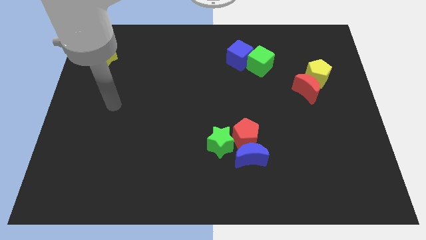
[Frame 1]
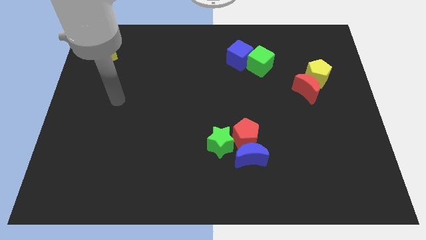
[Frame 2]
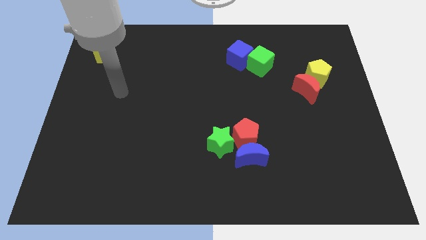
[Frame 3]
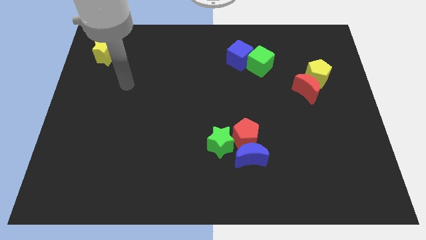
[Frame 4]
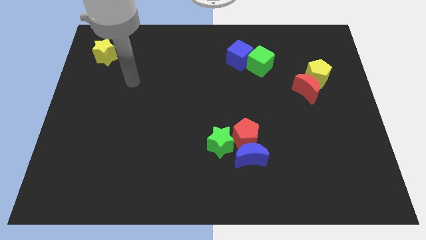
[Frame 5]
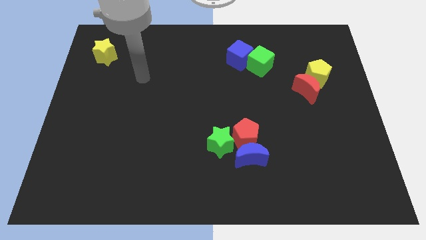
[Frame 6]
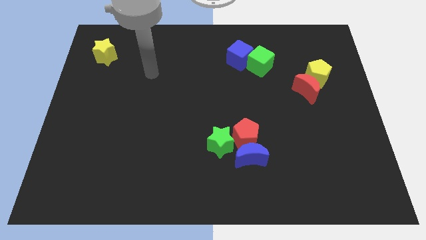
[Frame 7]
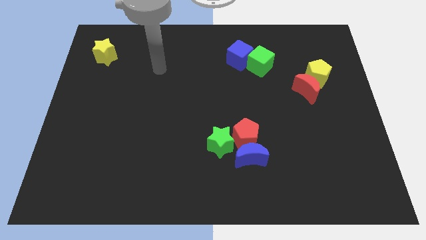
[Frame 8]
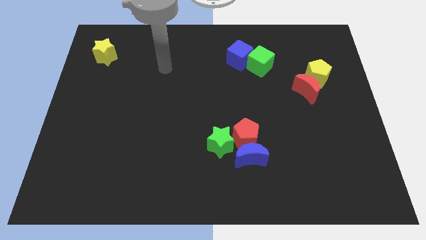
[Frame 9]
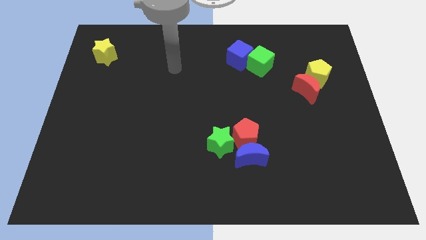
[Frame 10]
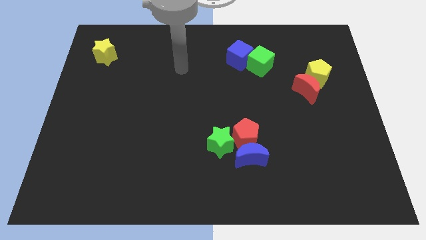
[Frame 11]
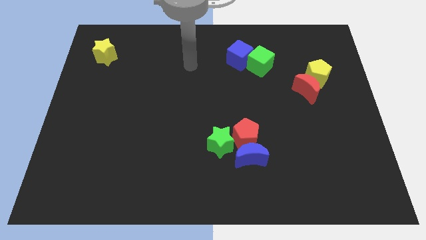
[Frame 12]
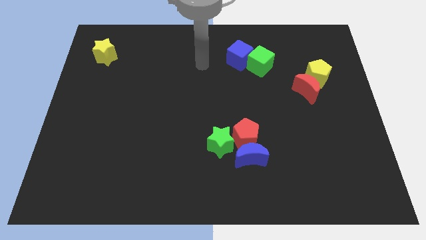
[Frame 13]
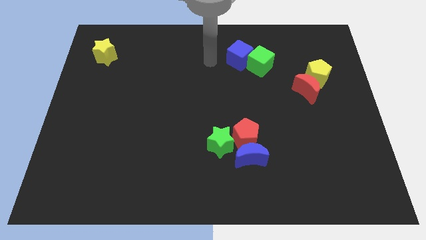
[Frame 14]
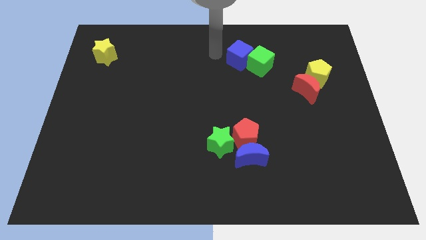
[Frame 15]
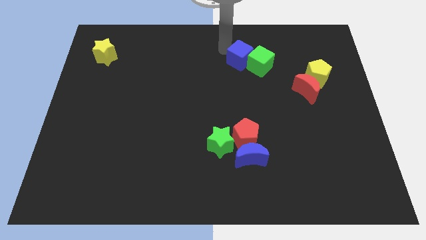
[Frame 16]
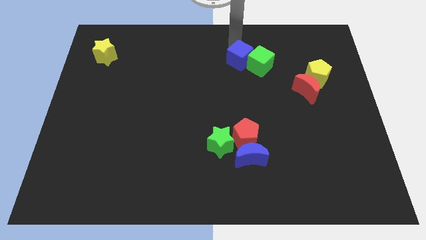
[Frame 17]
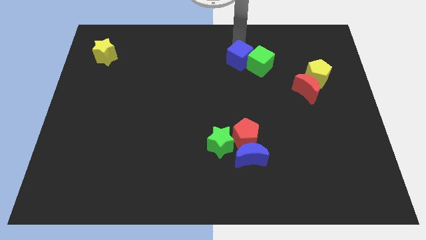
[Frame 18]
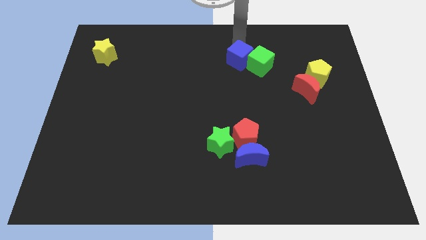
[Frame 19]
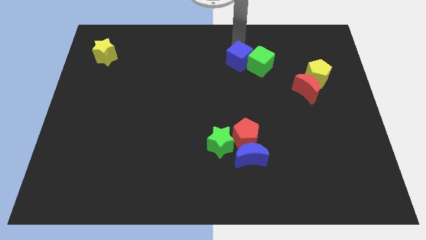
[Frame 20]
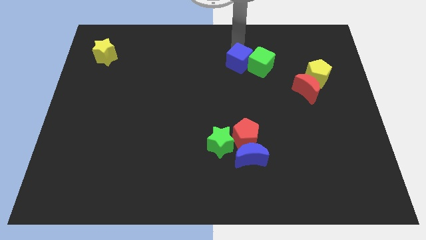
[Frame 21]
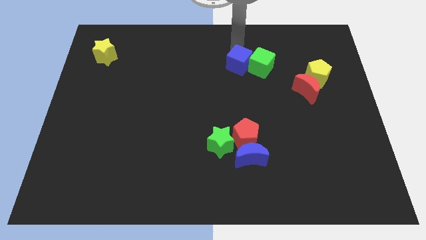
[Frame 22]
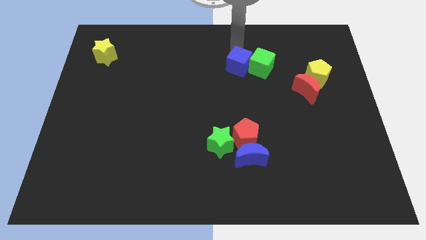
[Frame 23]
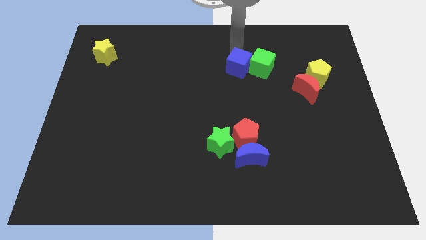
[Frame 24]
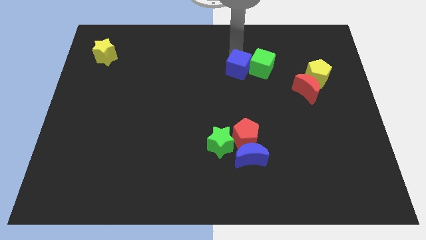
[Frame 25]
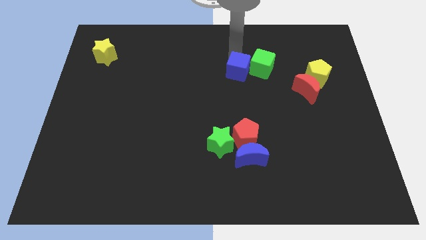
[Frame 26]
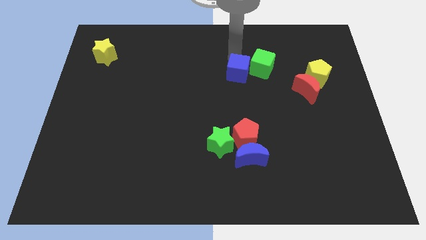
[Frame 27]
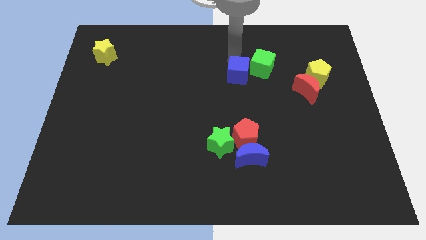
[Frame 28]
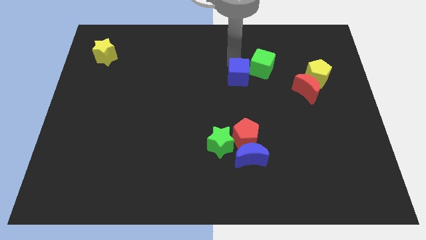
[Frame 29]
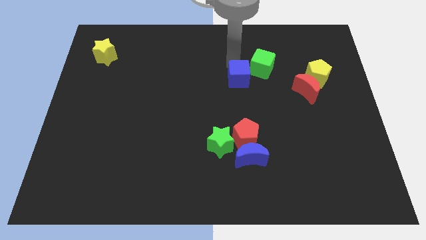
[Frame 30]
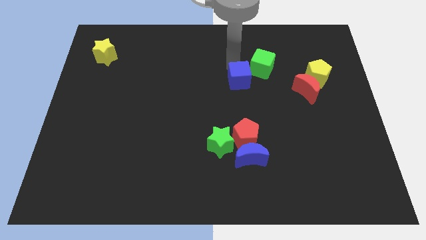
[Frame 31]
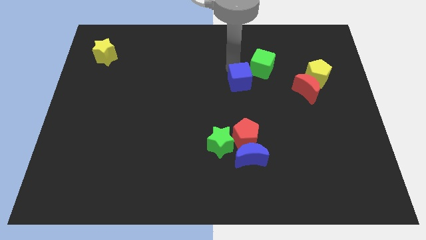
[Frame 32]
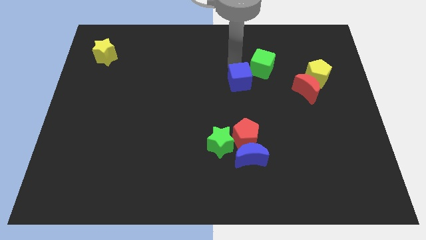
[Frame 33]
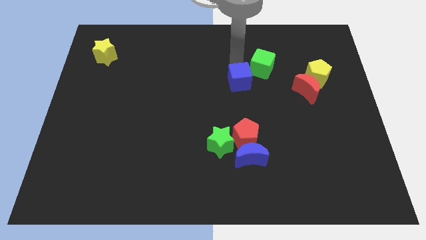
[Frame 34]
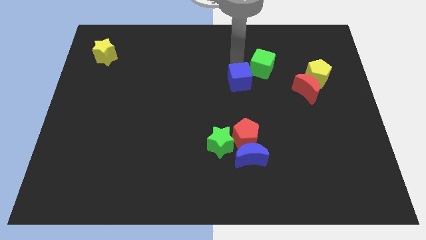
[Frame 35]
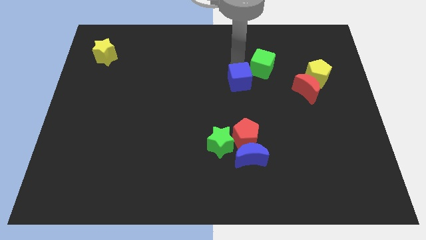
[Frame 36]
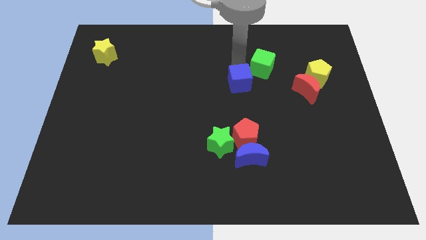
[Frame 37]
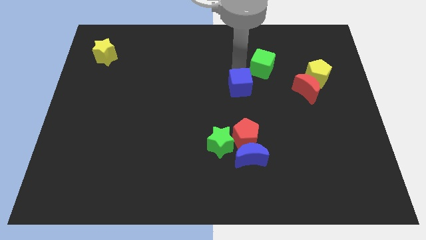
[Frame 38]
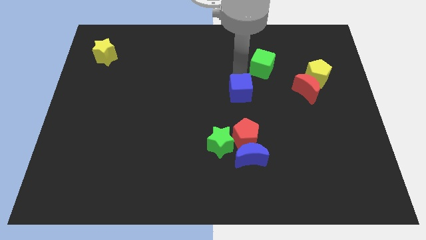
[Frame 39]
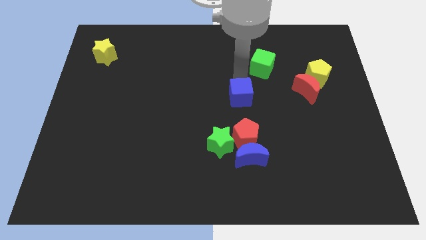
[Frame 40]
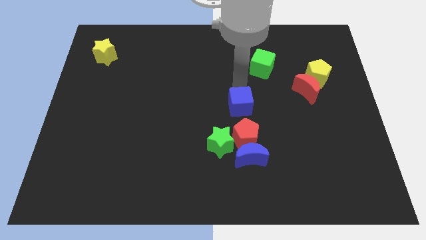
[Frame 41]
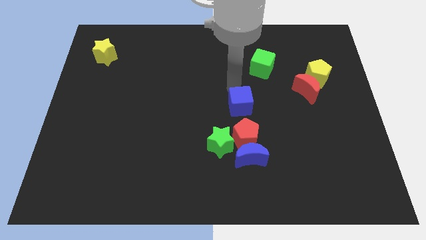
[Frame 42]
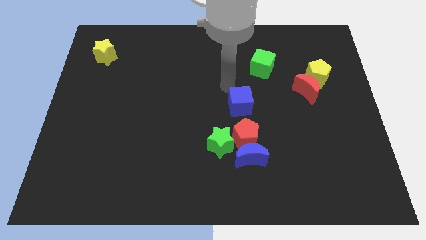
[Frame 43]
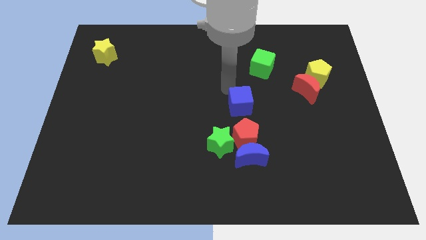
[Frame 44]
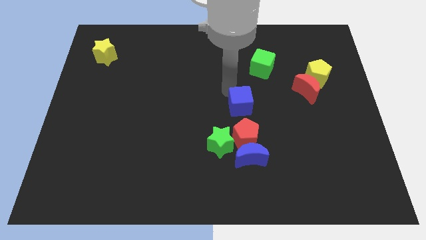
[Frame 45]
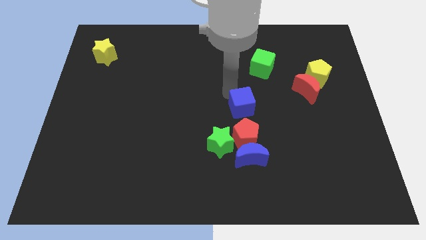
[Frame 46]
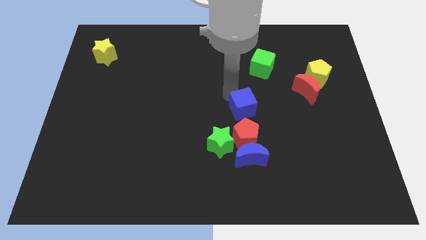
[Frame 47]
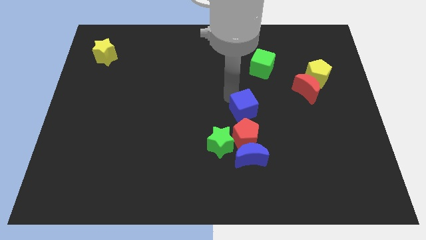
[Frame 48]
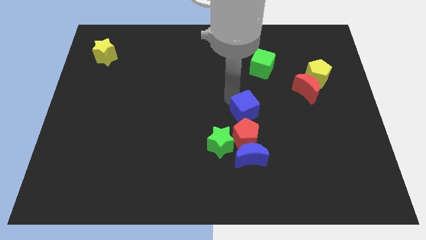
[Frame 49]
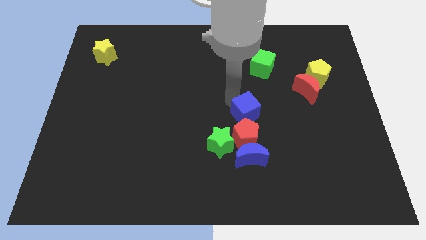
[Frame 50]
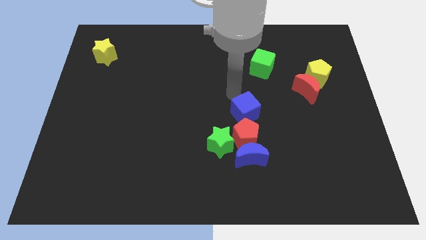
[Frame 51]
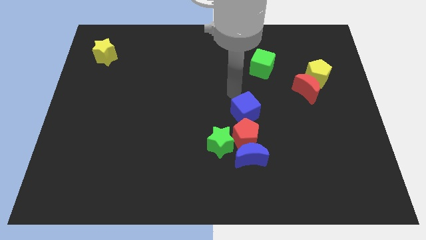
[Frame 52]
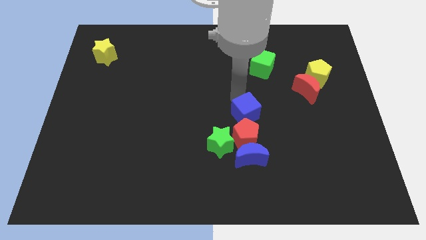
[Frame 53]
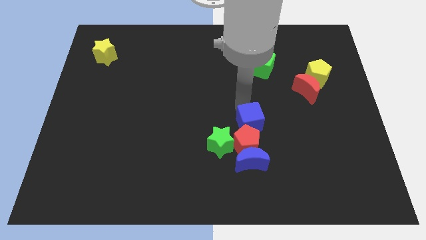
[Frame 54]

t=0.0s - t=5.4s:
slide the blue cube towards the red pentagon

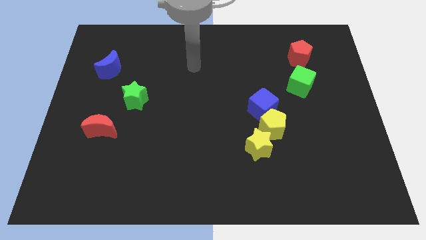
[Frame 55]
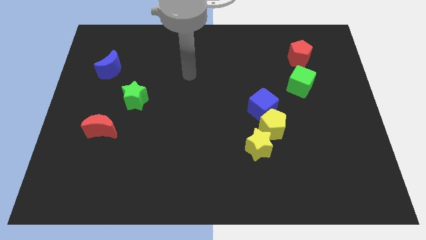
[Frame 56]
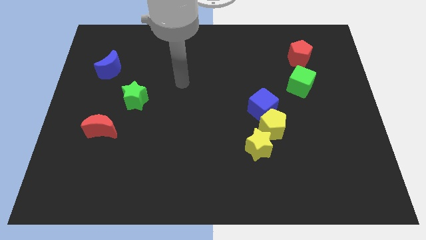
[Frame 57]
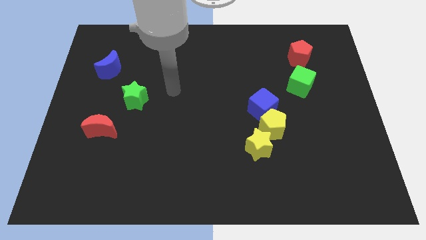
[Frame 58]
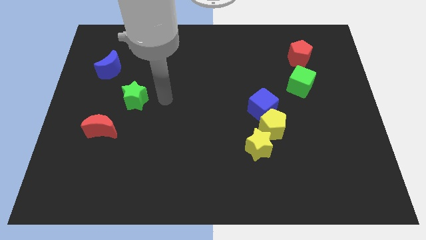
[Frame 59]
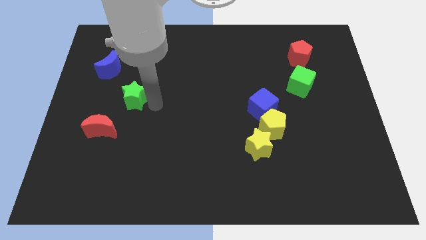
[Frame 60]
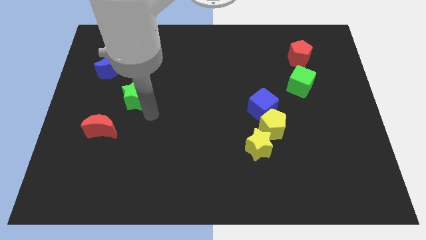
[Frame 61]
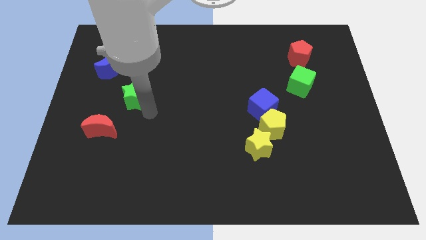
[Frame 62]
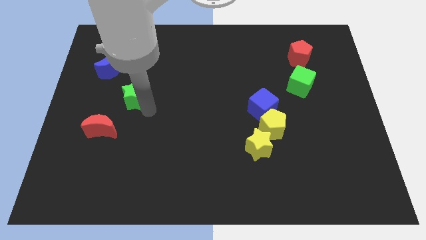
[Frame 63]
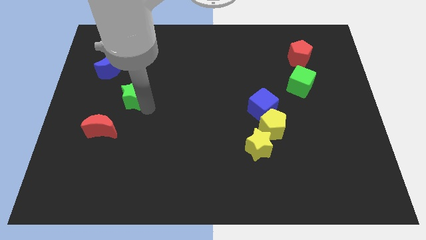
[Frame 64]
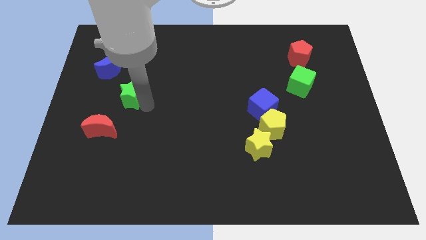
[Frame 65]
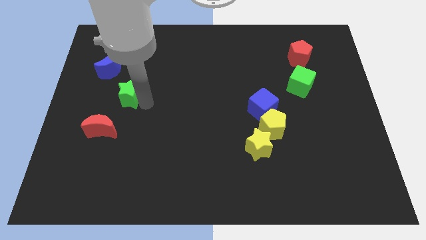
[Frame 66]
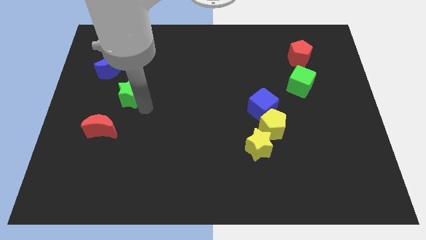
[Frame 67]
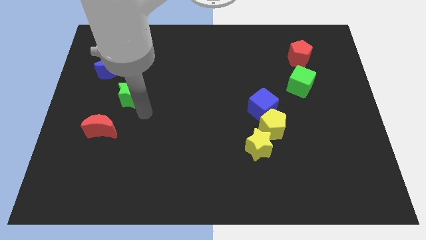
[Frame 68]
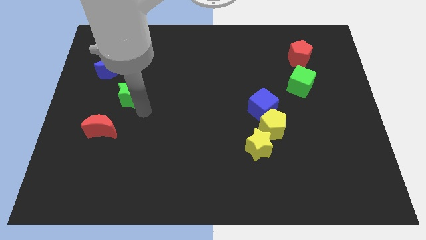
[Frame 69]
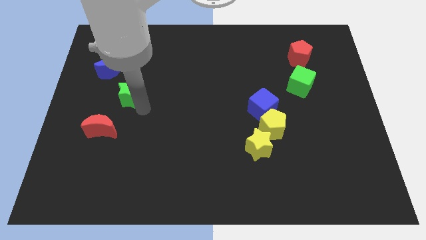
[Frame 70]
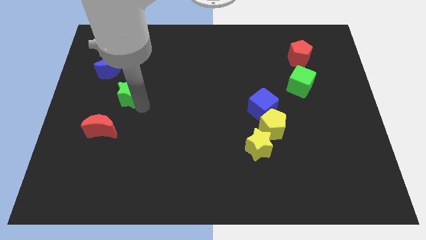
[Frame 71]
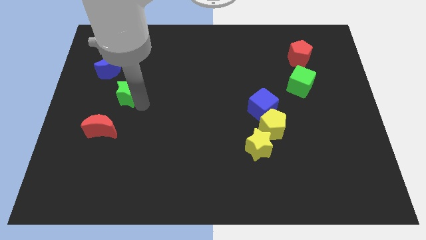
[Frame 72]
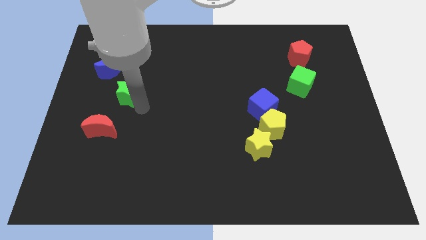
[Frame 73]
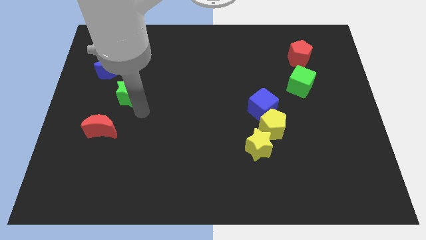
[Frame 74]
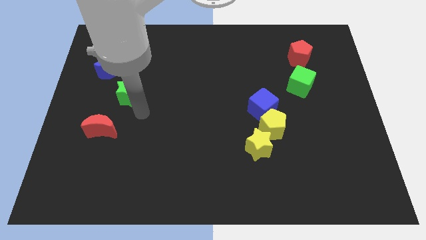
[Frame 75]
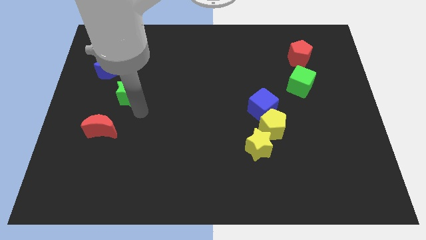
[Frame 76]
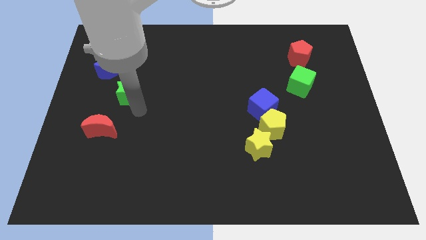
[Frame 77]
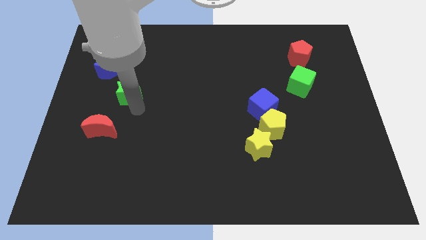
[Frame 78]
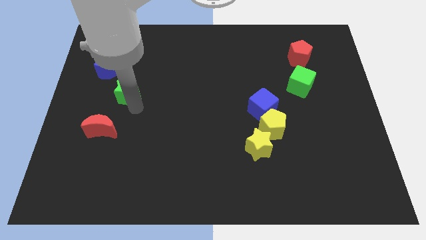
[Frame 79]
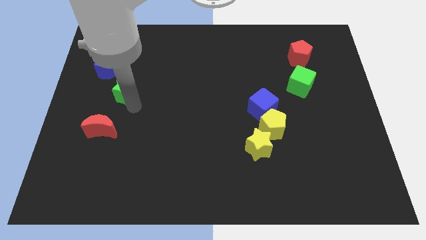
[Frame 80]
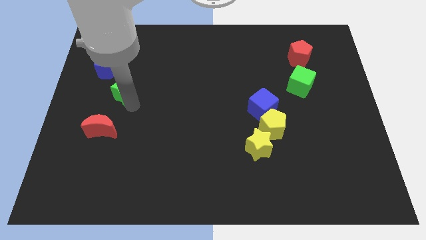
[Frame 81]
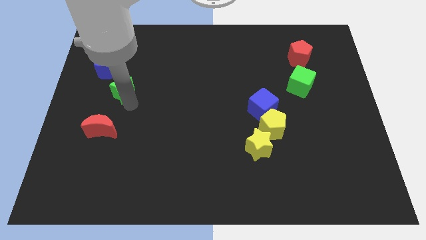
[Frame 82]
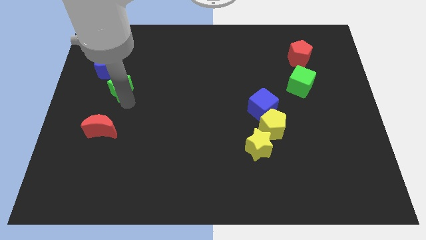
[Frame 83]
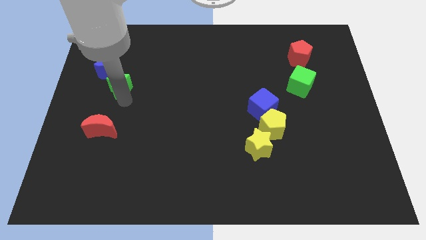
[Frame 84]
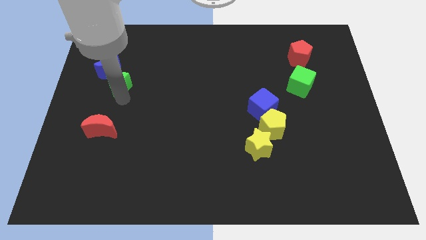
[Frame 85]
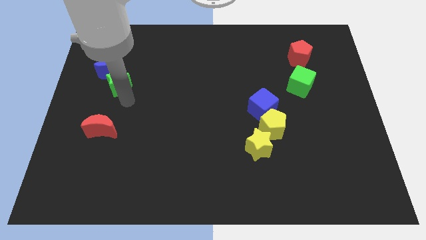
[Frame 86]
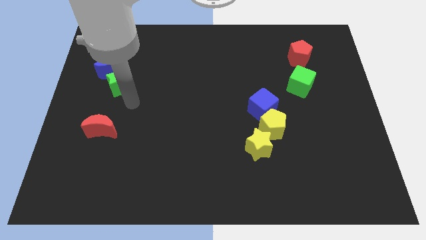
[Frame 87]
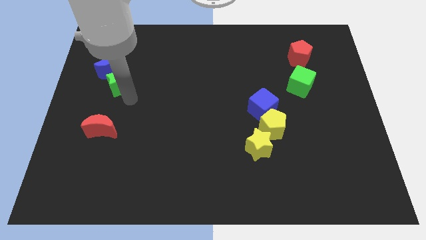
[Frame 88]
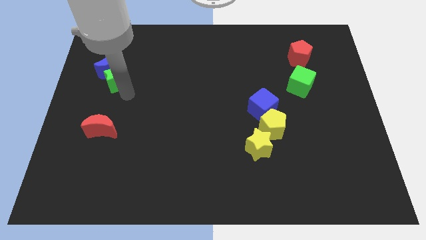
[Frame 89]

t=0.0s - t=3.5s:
slide the green star next to the blue moon
